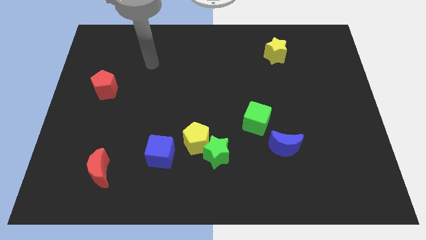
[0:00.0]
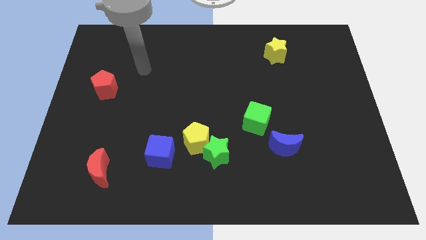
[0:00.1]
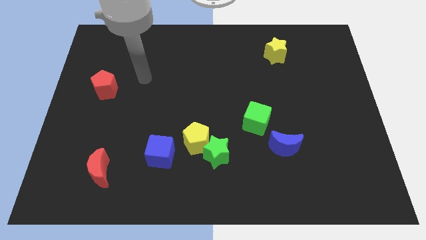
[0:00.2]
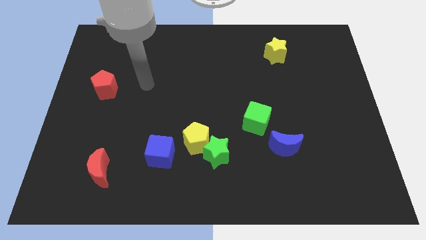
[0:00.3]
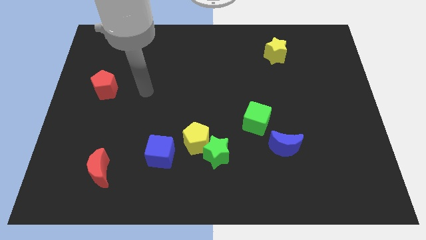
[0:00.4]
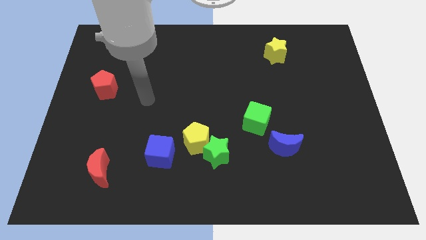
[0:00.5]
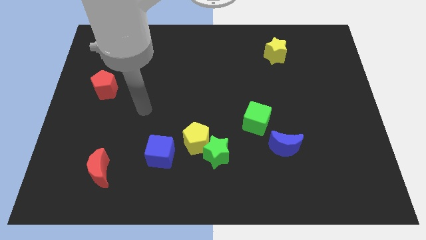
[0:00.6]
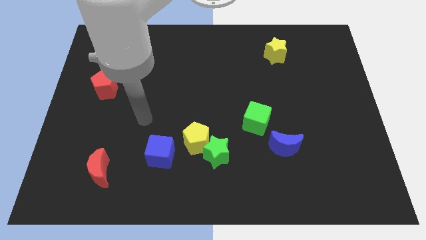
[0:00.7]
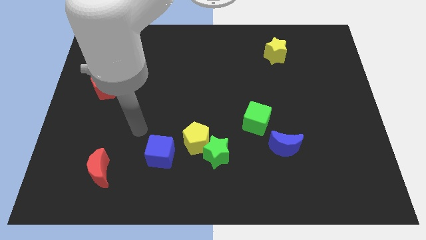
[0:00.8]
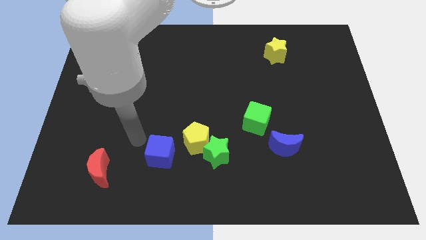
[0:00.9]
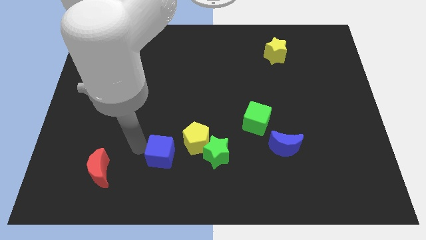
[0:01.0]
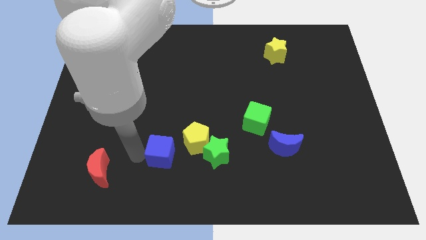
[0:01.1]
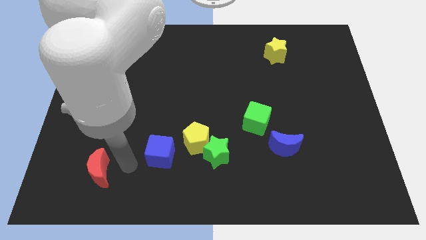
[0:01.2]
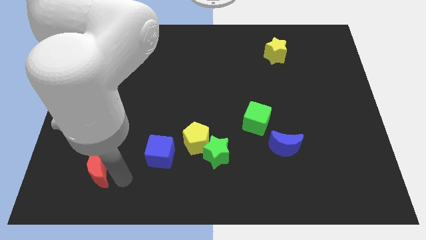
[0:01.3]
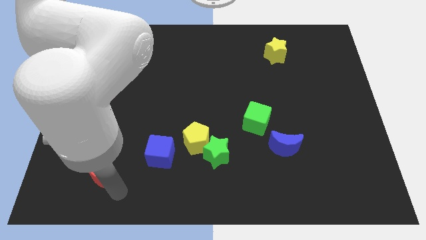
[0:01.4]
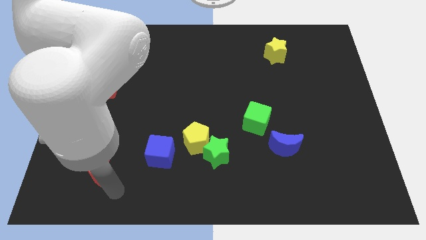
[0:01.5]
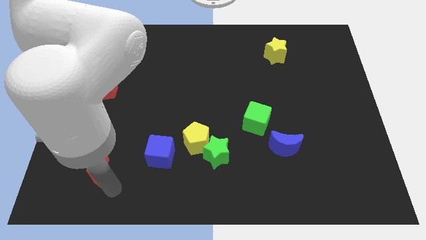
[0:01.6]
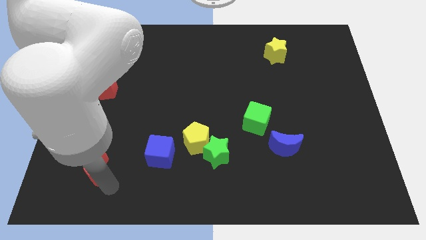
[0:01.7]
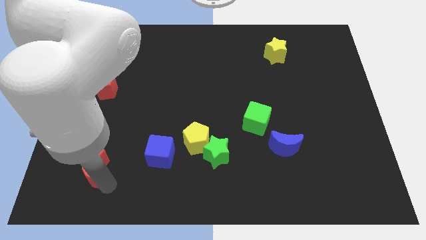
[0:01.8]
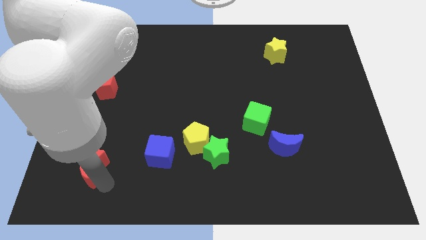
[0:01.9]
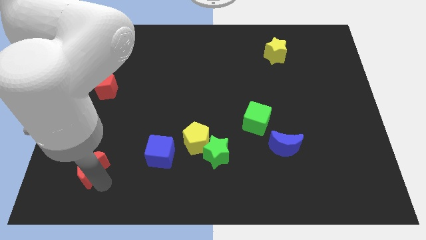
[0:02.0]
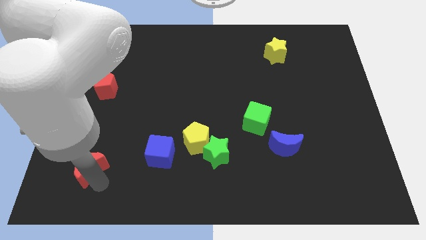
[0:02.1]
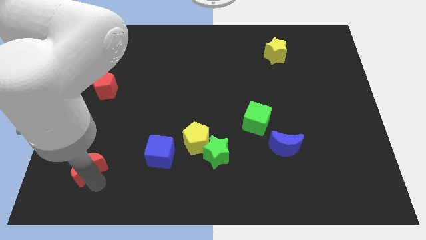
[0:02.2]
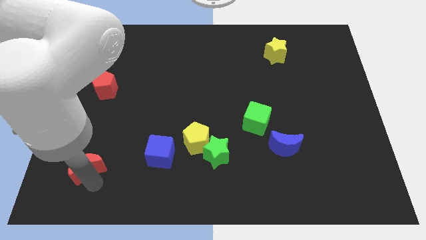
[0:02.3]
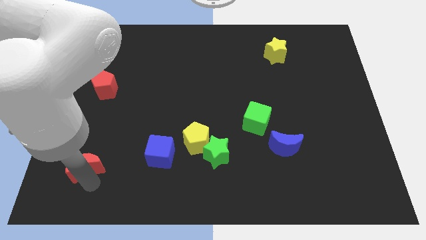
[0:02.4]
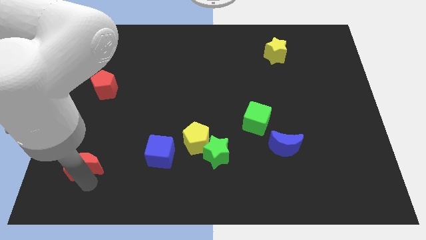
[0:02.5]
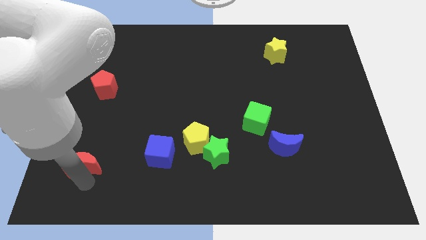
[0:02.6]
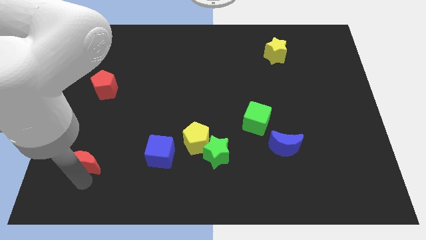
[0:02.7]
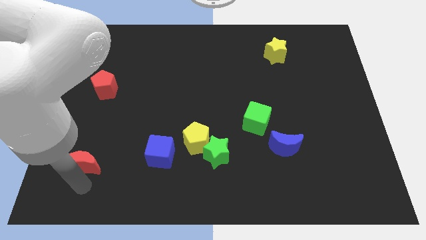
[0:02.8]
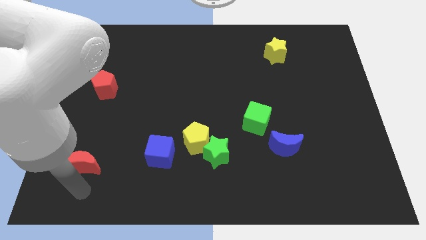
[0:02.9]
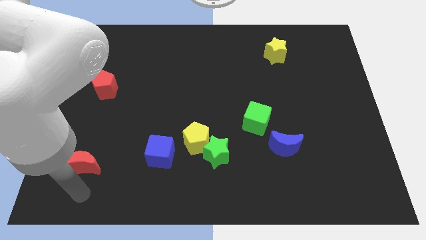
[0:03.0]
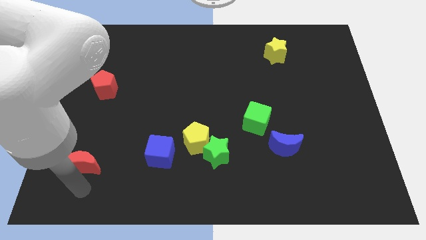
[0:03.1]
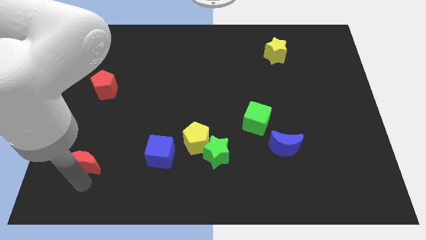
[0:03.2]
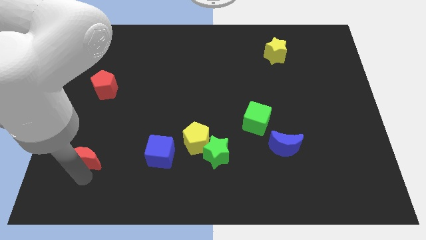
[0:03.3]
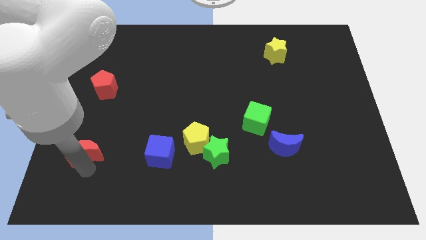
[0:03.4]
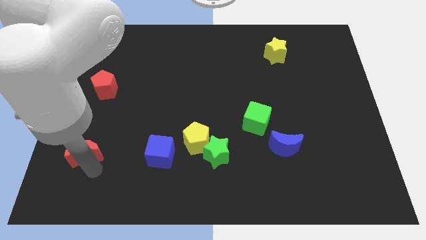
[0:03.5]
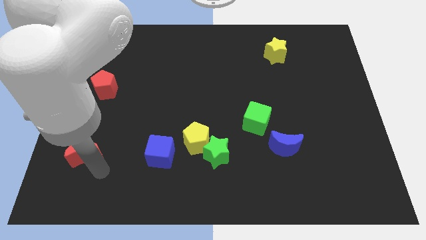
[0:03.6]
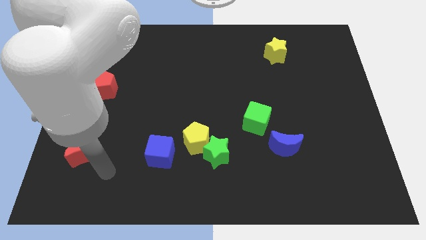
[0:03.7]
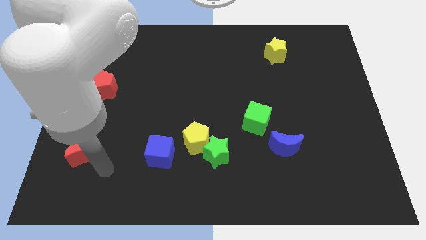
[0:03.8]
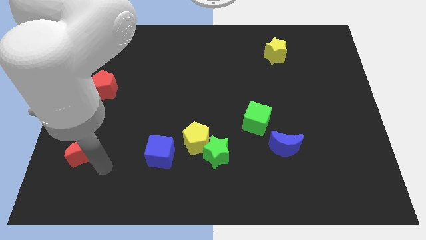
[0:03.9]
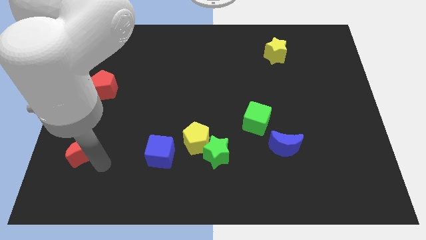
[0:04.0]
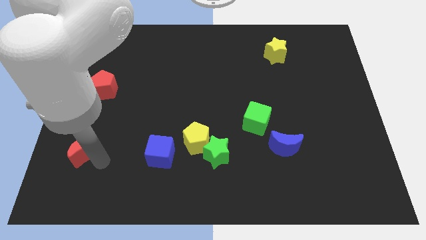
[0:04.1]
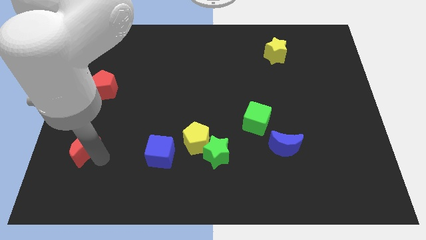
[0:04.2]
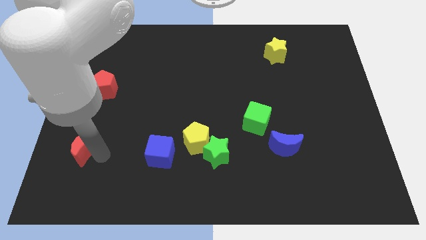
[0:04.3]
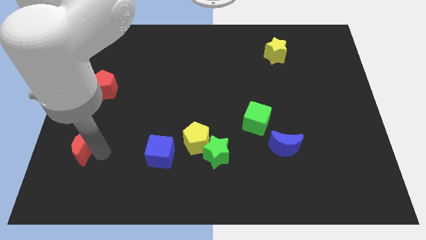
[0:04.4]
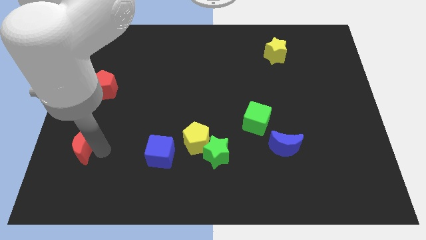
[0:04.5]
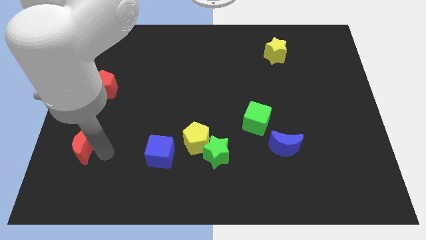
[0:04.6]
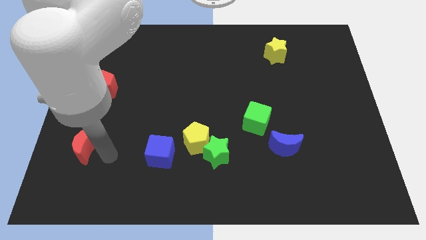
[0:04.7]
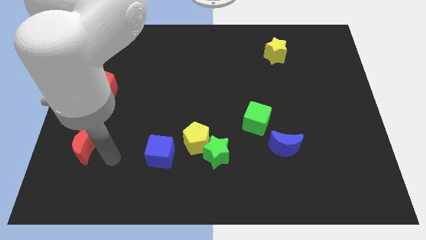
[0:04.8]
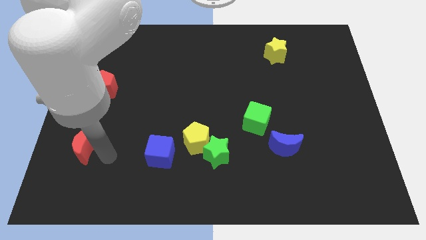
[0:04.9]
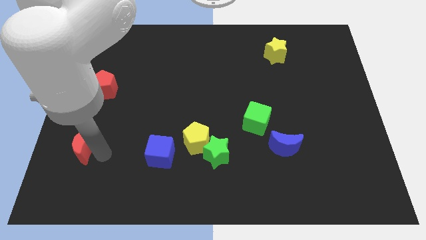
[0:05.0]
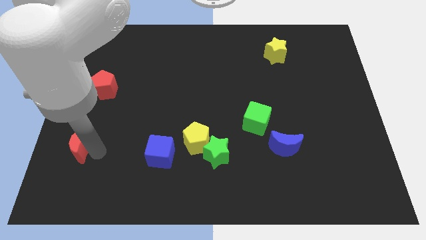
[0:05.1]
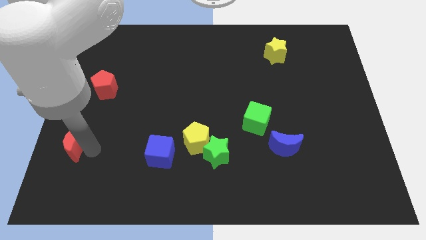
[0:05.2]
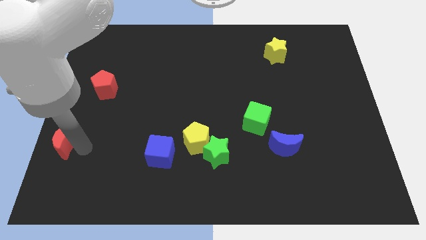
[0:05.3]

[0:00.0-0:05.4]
move the red moon to the left side of the board
